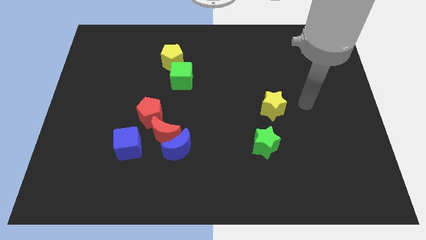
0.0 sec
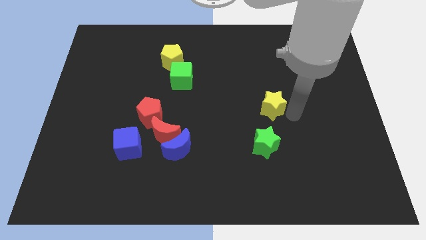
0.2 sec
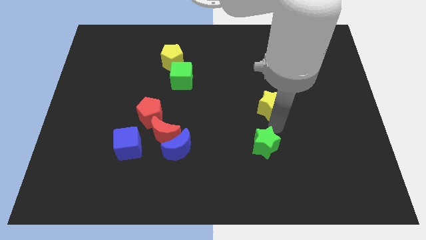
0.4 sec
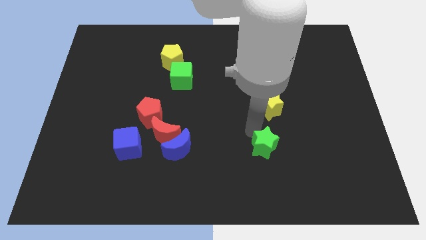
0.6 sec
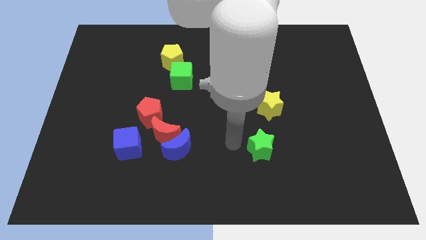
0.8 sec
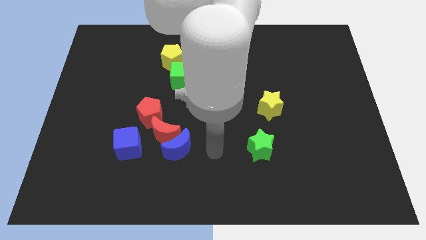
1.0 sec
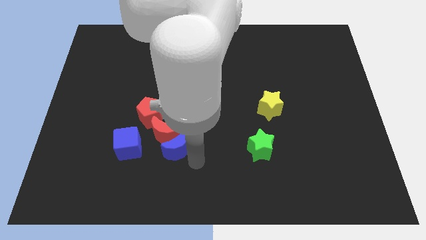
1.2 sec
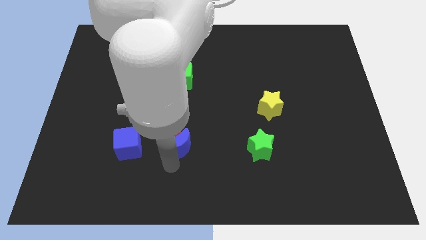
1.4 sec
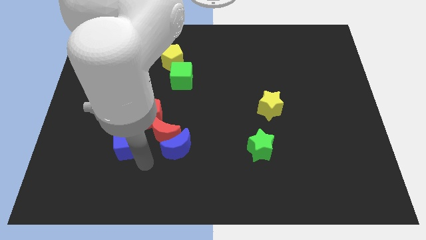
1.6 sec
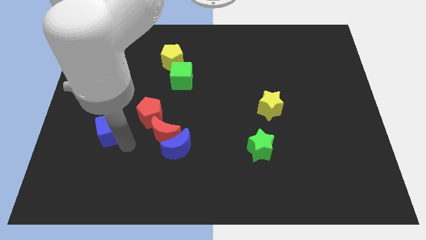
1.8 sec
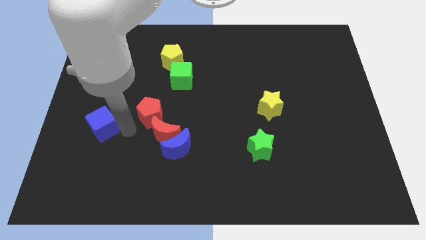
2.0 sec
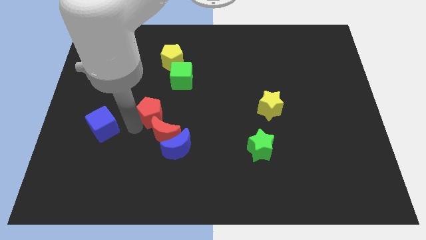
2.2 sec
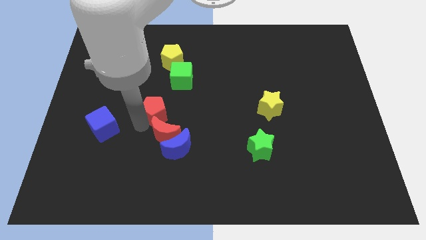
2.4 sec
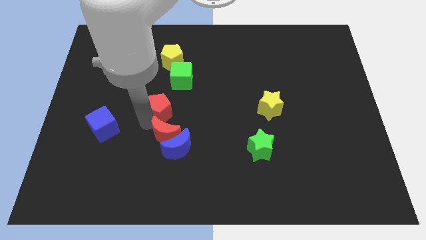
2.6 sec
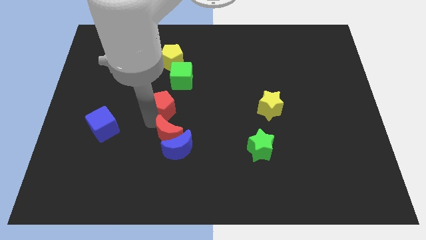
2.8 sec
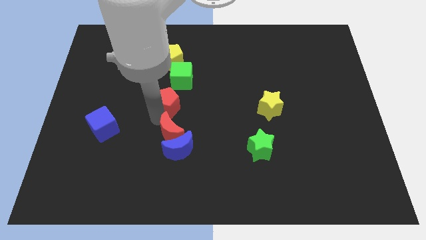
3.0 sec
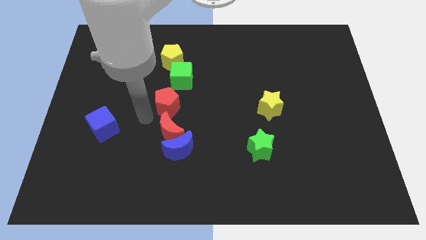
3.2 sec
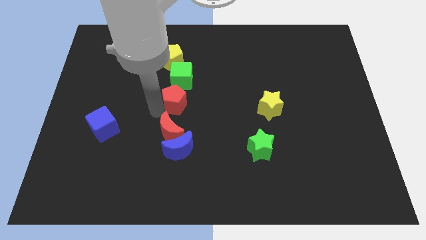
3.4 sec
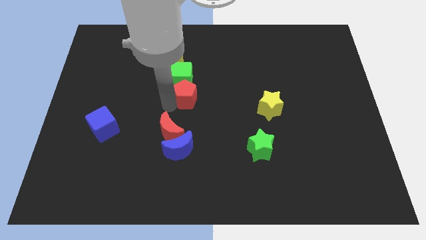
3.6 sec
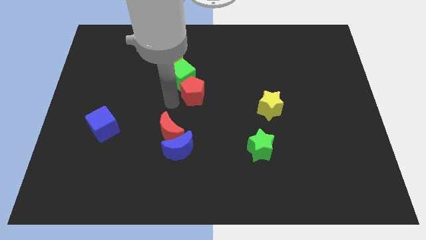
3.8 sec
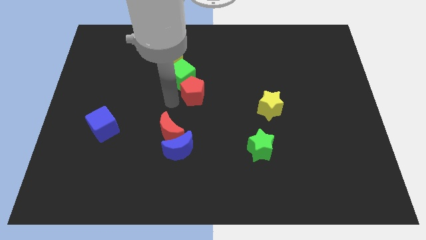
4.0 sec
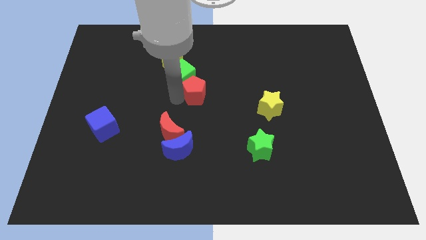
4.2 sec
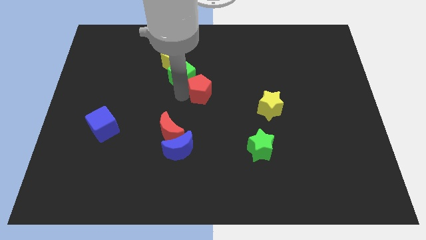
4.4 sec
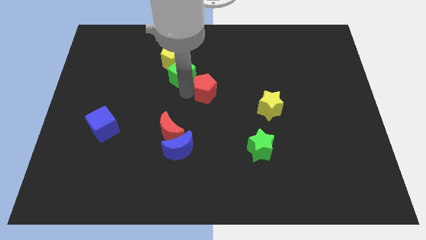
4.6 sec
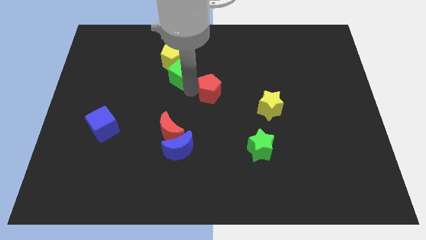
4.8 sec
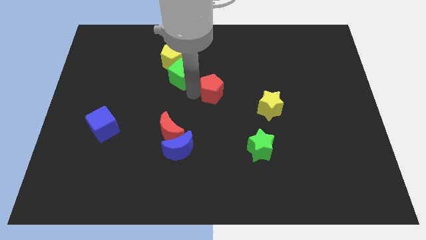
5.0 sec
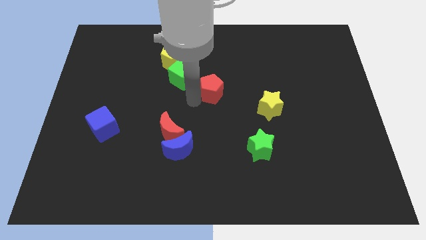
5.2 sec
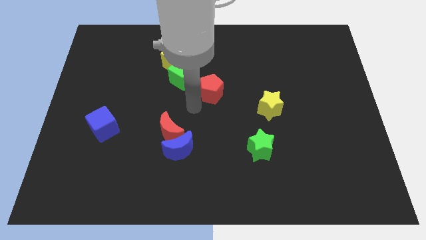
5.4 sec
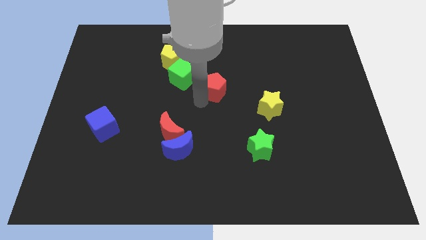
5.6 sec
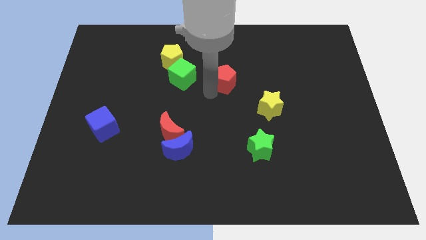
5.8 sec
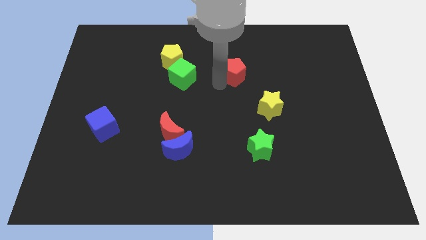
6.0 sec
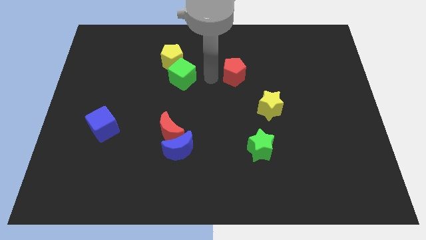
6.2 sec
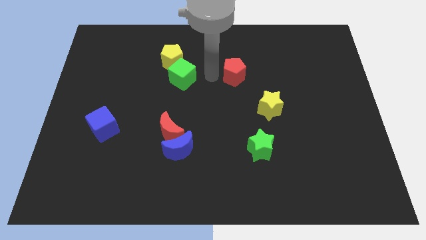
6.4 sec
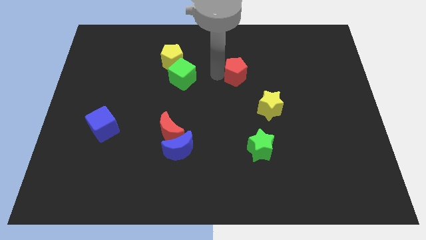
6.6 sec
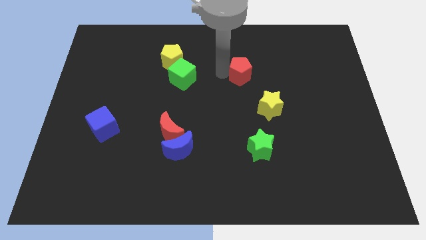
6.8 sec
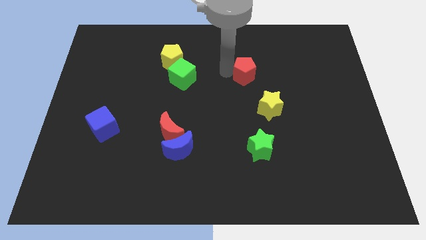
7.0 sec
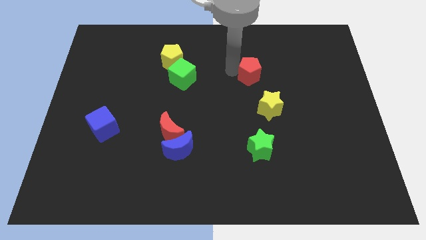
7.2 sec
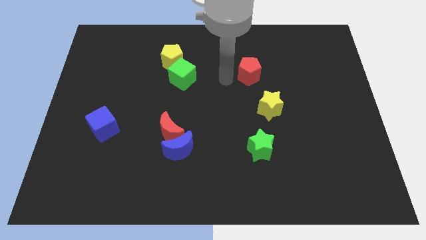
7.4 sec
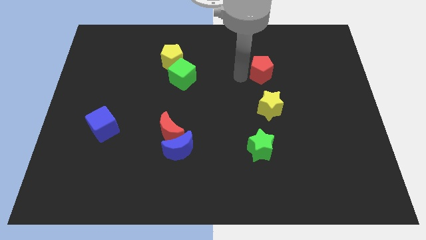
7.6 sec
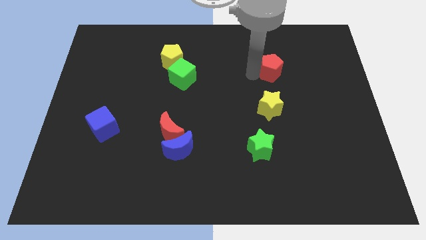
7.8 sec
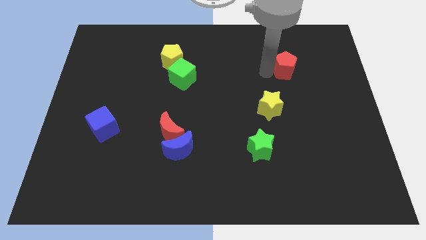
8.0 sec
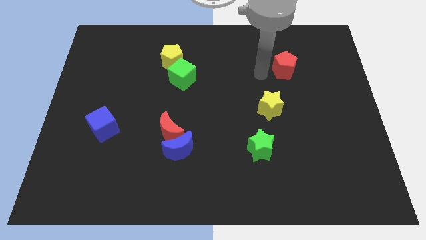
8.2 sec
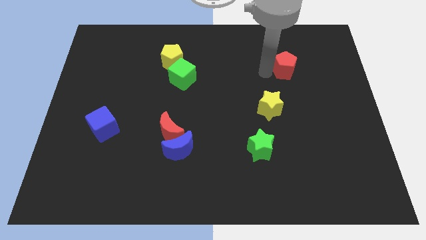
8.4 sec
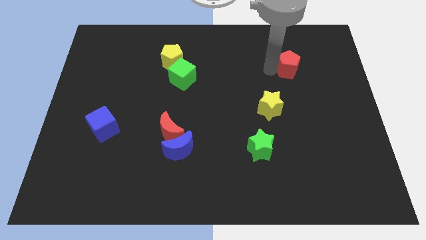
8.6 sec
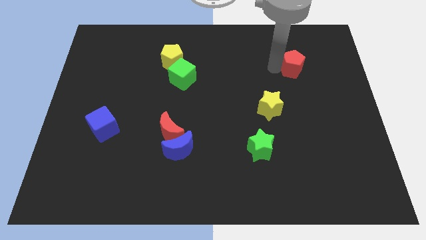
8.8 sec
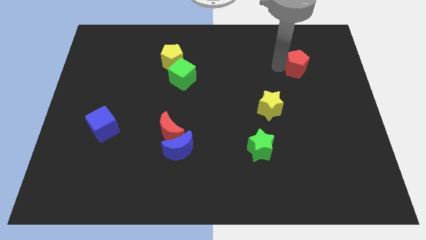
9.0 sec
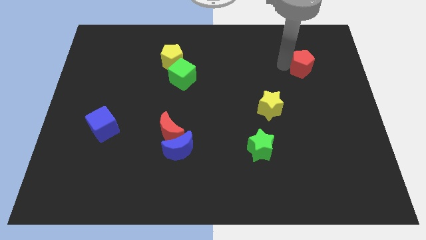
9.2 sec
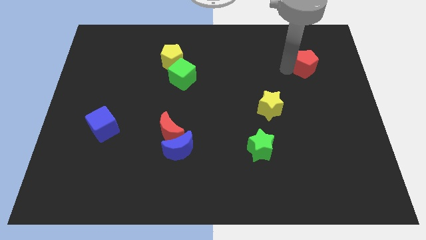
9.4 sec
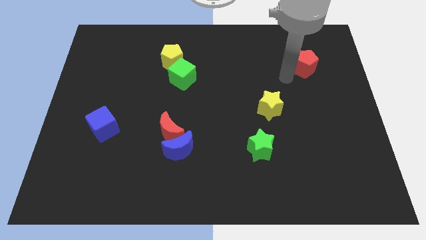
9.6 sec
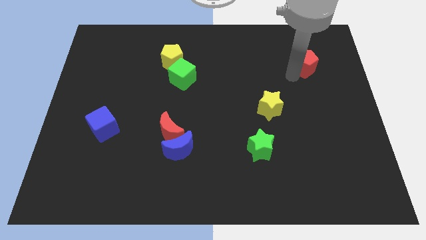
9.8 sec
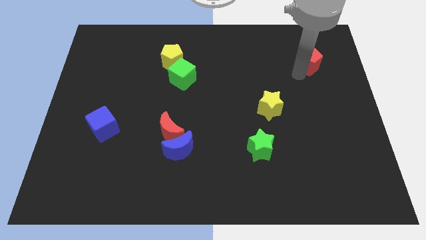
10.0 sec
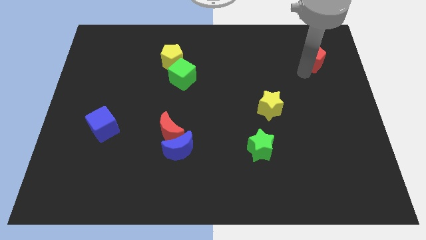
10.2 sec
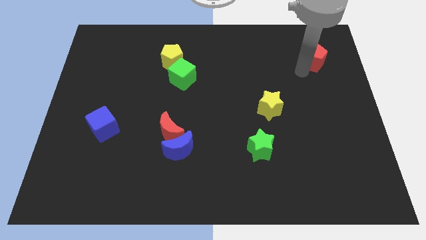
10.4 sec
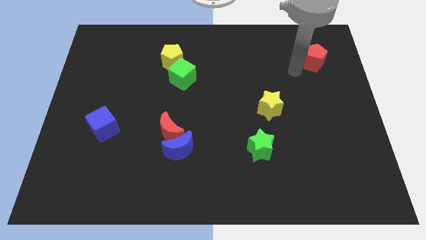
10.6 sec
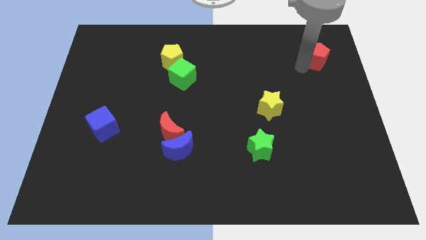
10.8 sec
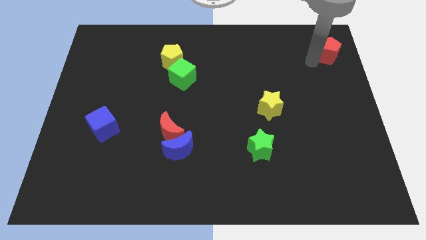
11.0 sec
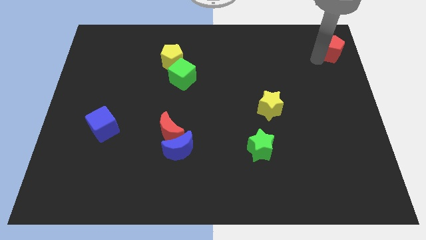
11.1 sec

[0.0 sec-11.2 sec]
move the red pentagon to the top right corner

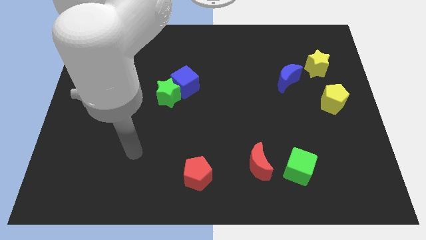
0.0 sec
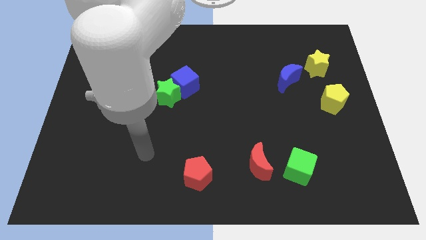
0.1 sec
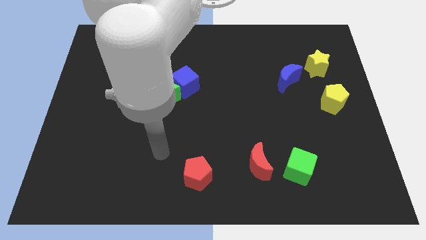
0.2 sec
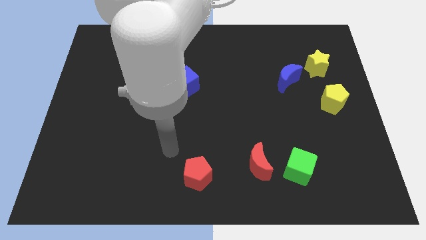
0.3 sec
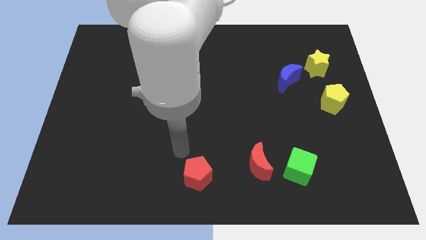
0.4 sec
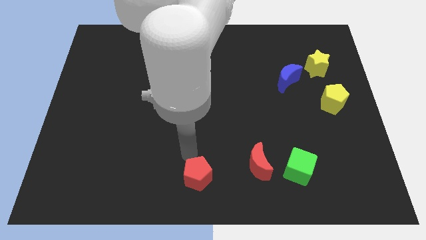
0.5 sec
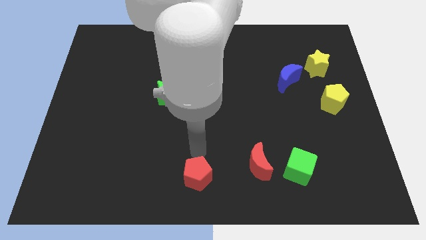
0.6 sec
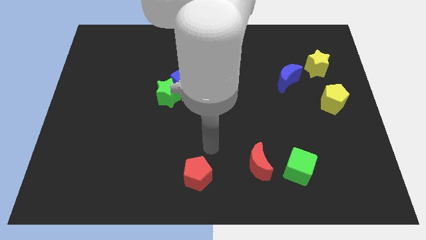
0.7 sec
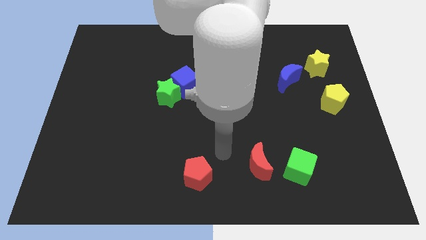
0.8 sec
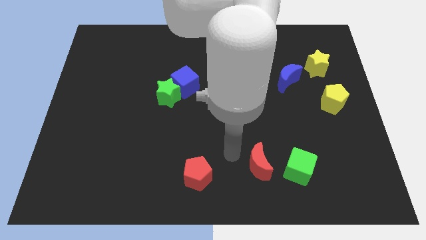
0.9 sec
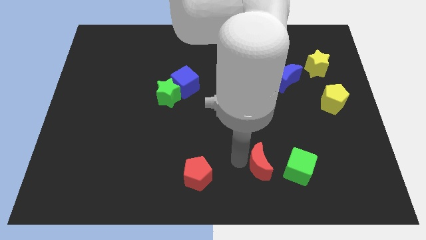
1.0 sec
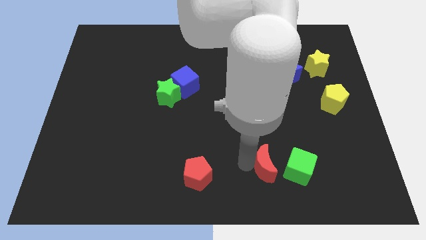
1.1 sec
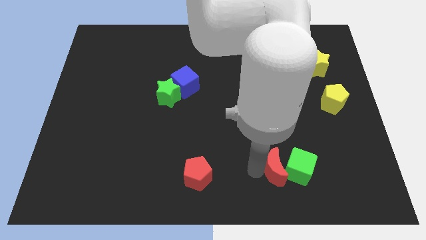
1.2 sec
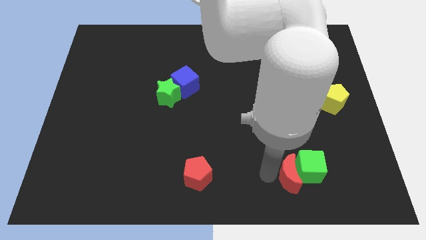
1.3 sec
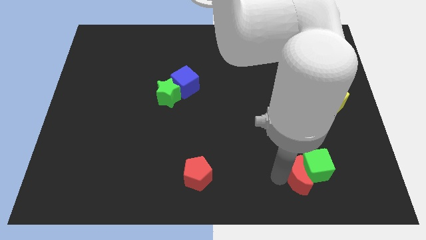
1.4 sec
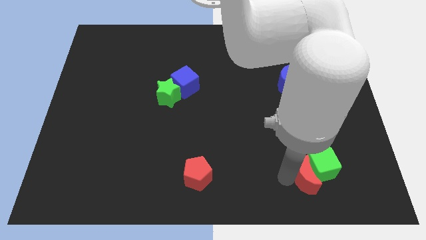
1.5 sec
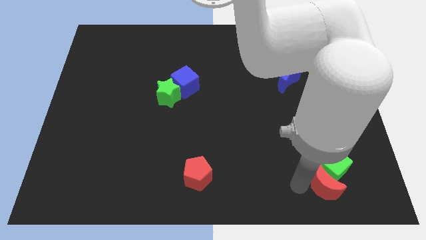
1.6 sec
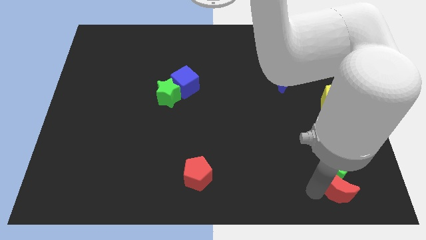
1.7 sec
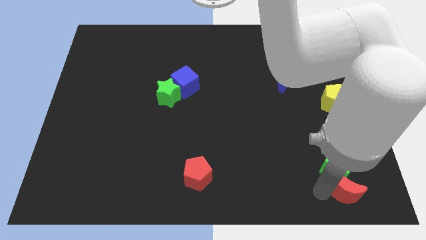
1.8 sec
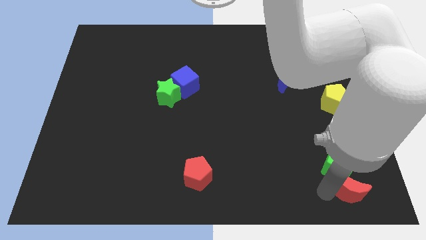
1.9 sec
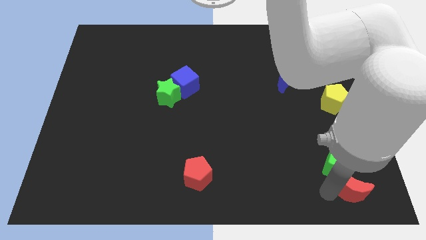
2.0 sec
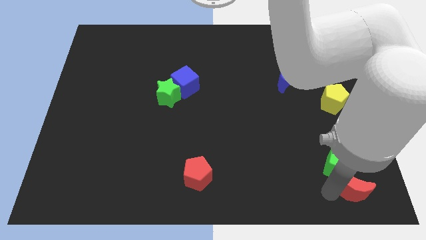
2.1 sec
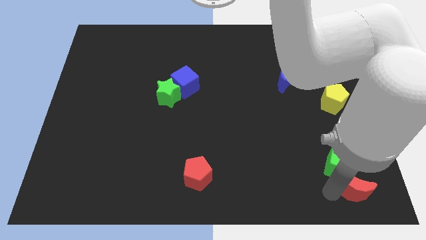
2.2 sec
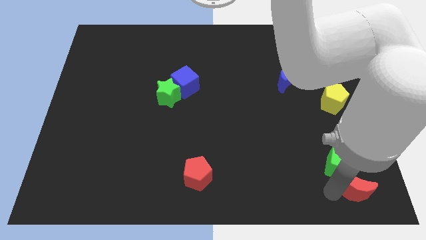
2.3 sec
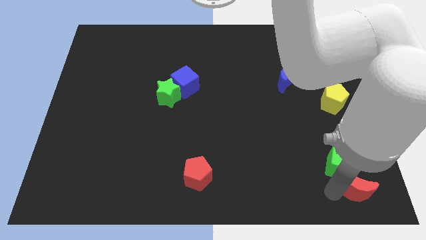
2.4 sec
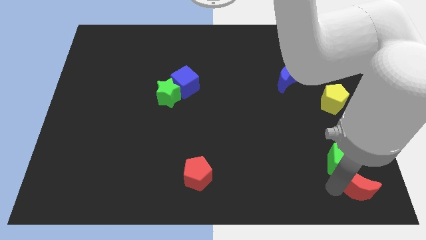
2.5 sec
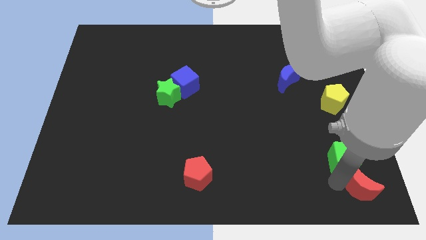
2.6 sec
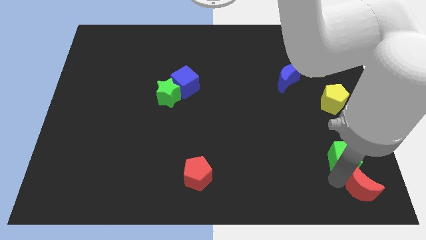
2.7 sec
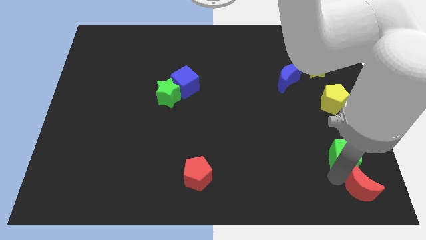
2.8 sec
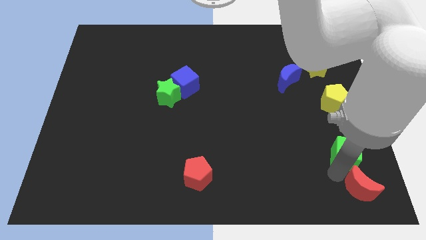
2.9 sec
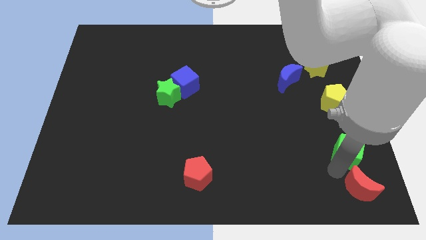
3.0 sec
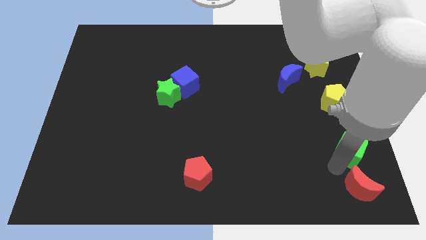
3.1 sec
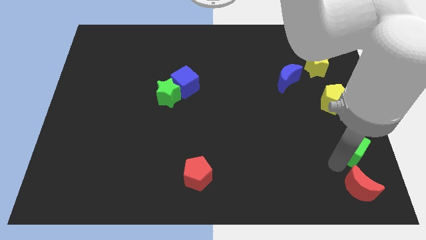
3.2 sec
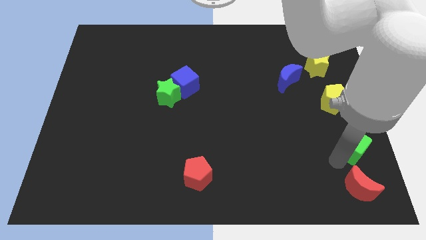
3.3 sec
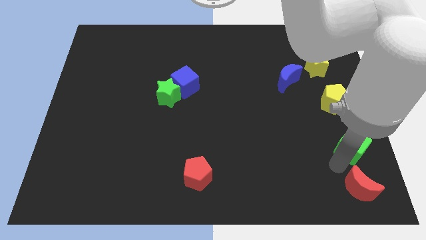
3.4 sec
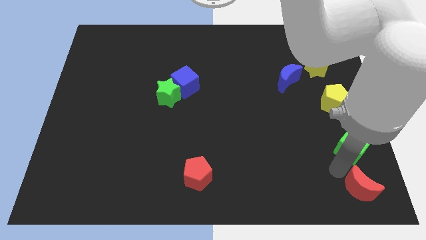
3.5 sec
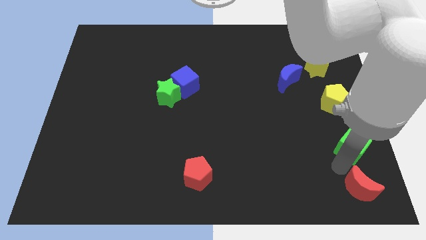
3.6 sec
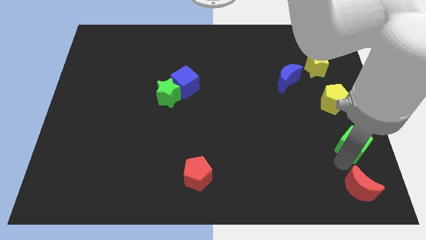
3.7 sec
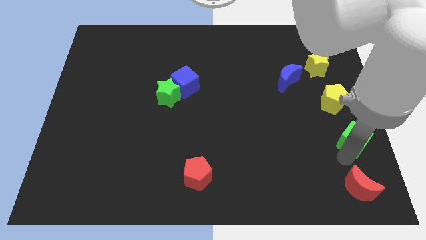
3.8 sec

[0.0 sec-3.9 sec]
put the green cube to the right side
